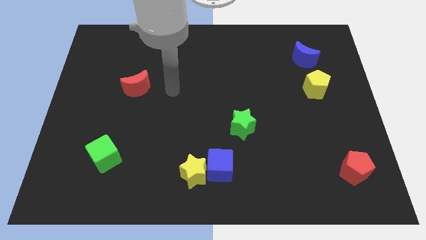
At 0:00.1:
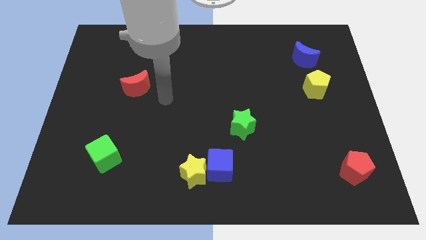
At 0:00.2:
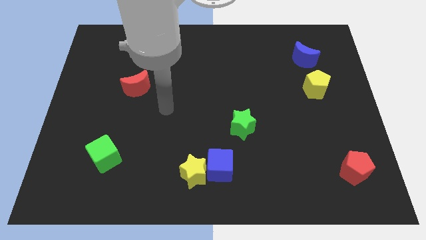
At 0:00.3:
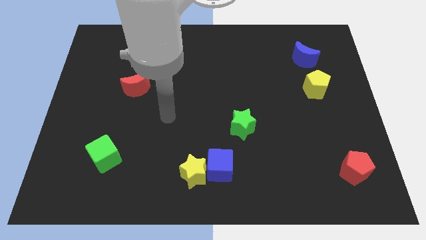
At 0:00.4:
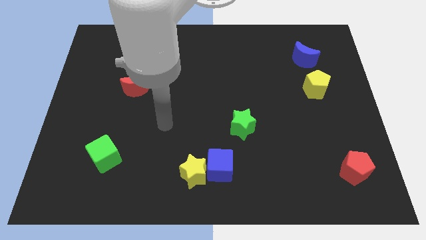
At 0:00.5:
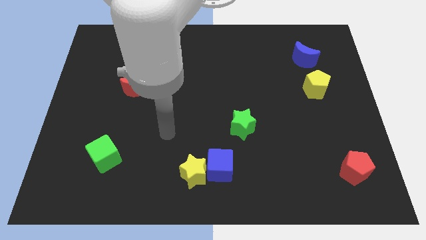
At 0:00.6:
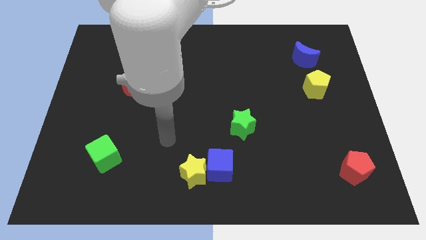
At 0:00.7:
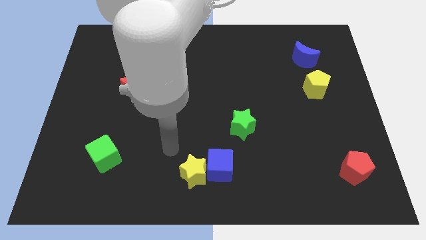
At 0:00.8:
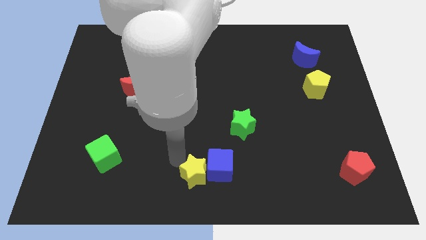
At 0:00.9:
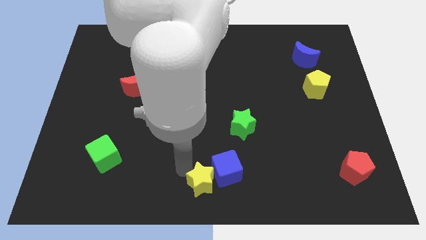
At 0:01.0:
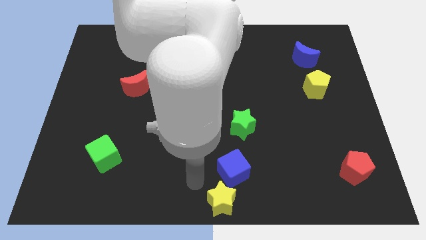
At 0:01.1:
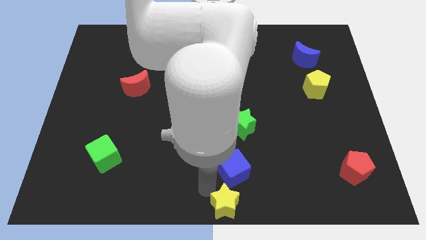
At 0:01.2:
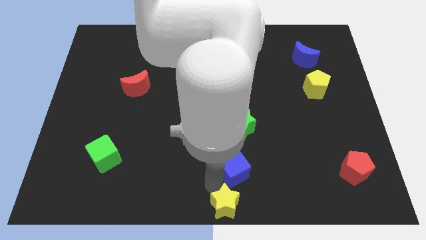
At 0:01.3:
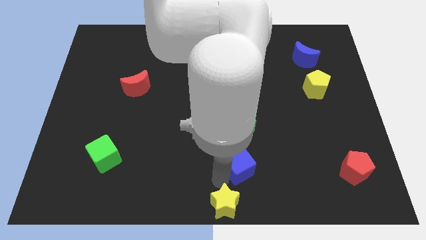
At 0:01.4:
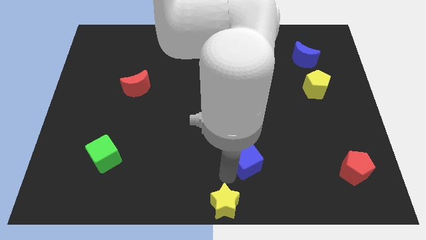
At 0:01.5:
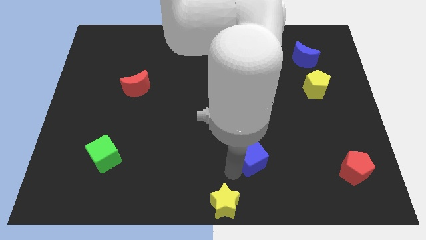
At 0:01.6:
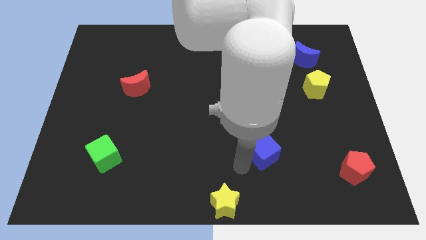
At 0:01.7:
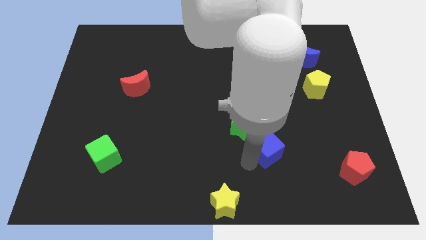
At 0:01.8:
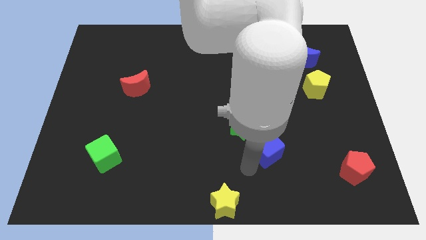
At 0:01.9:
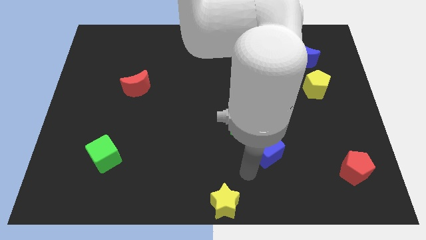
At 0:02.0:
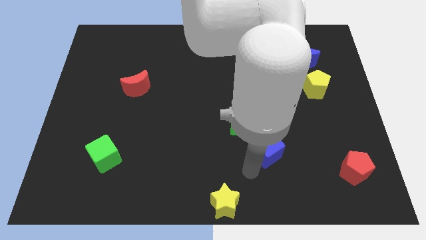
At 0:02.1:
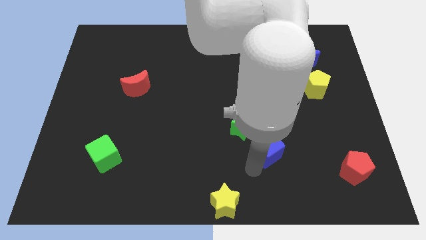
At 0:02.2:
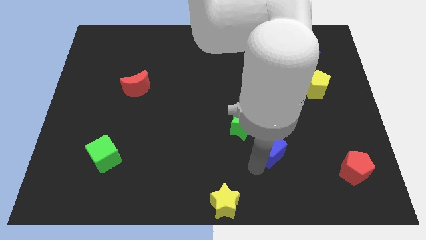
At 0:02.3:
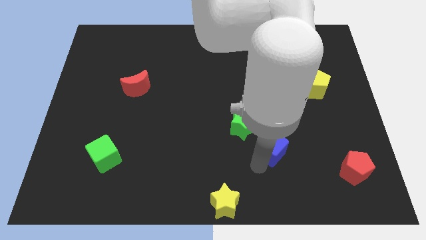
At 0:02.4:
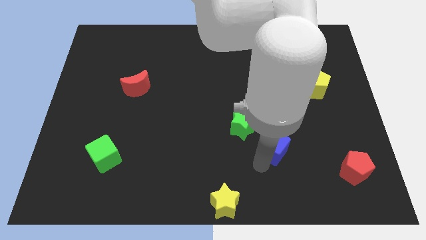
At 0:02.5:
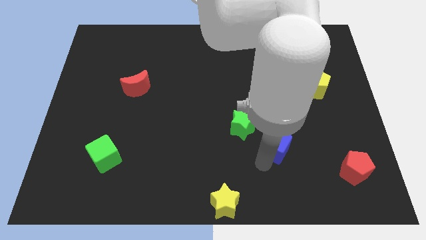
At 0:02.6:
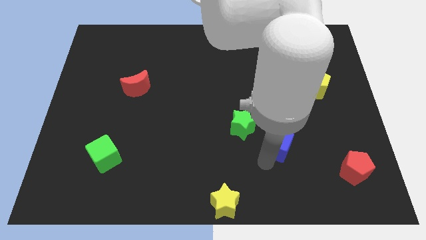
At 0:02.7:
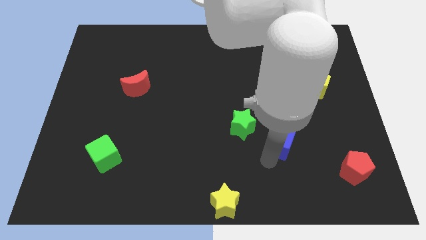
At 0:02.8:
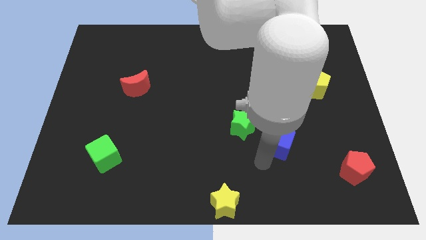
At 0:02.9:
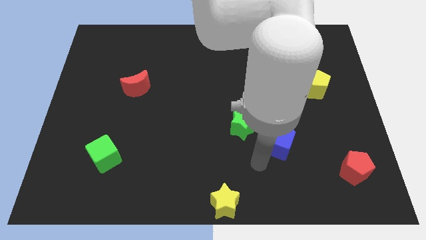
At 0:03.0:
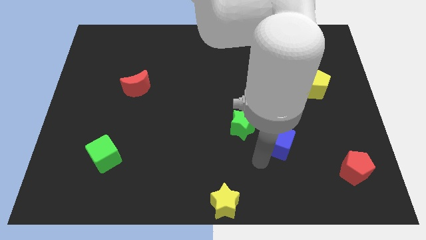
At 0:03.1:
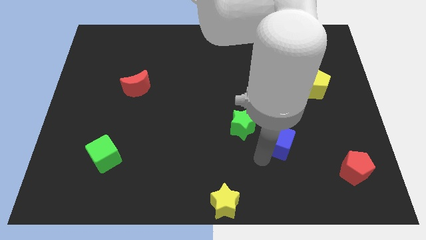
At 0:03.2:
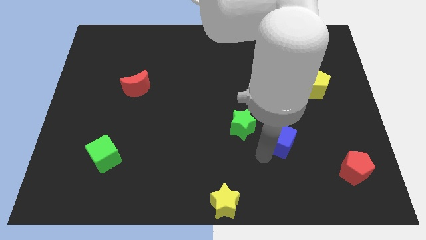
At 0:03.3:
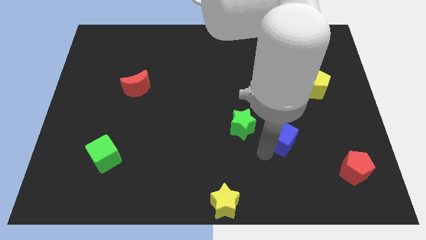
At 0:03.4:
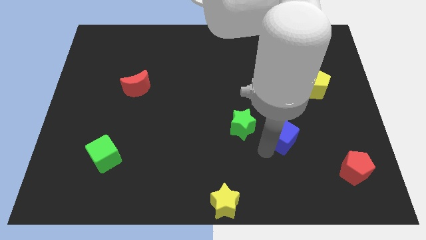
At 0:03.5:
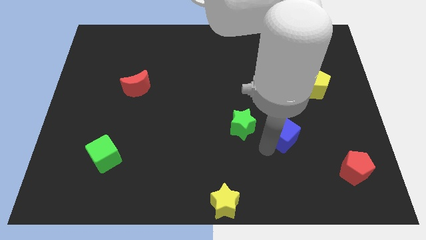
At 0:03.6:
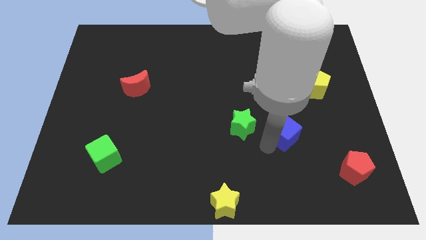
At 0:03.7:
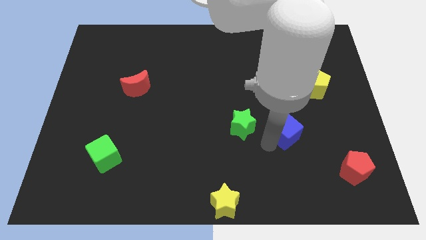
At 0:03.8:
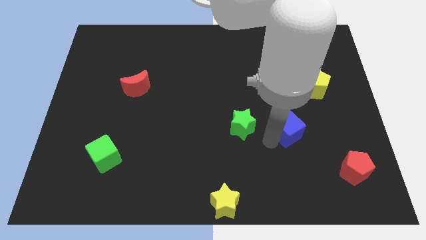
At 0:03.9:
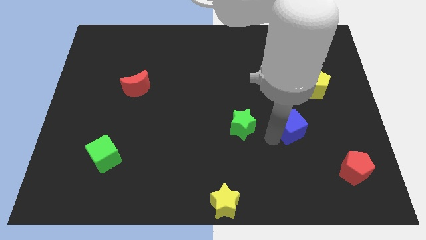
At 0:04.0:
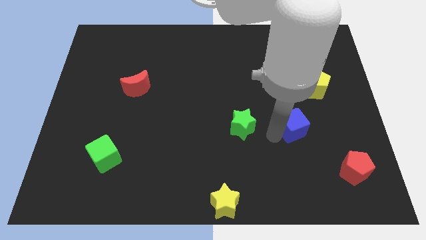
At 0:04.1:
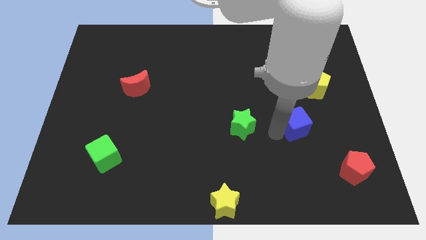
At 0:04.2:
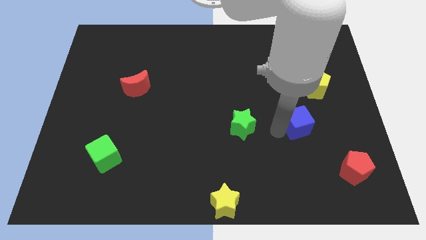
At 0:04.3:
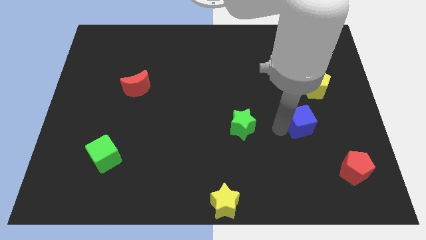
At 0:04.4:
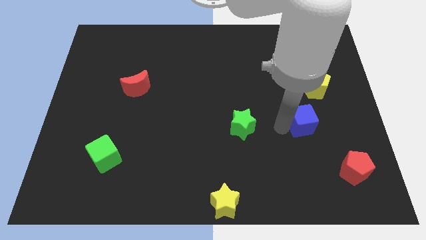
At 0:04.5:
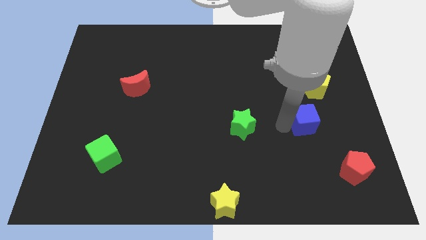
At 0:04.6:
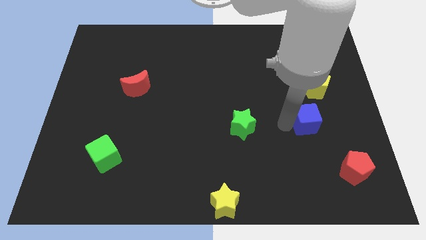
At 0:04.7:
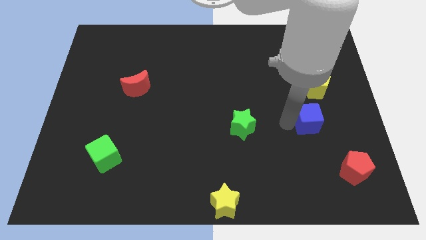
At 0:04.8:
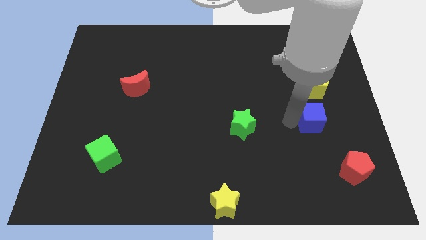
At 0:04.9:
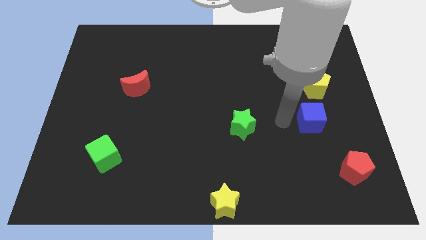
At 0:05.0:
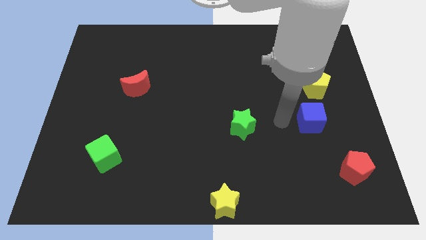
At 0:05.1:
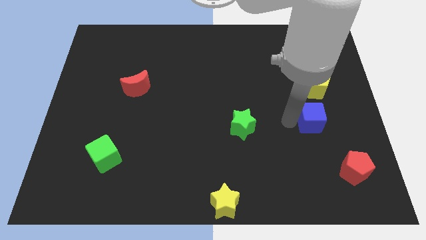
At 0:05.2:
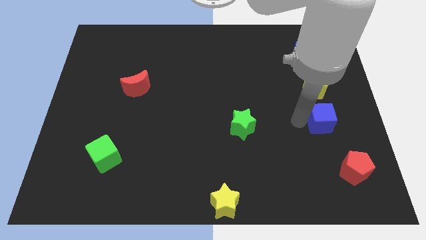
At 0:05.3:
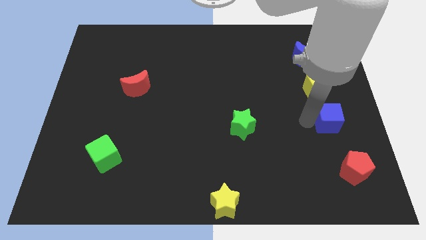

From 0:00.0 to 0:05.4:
put the blue cube to the right side of the board

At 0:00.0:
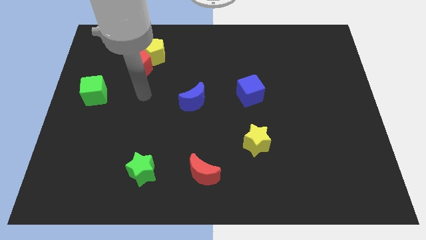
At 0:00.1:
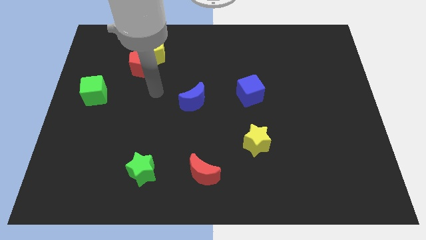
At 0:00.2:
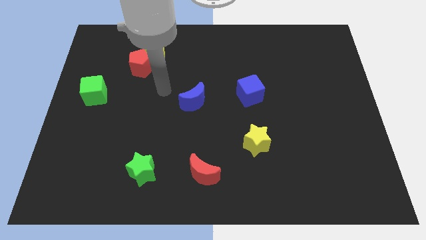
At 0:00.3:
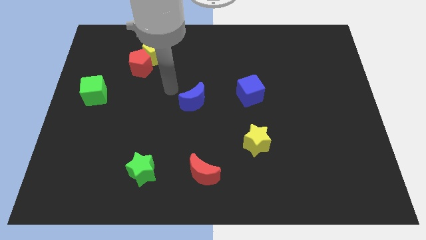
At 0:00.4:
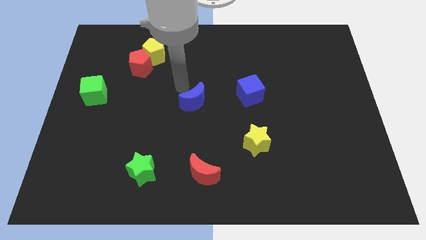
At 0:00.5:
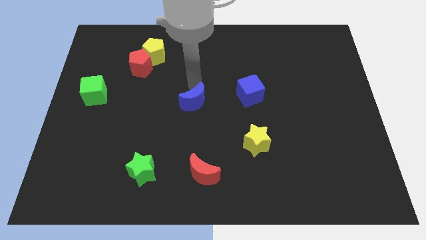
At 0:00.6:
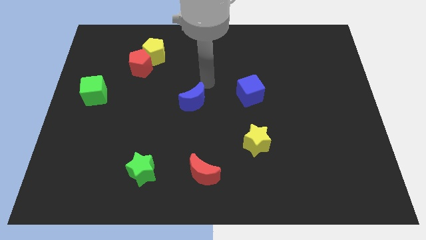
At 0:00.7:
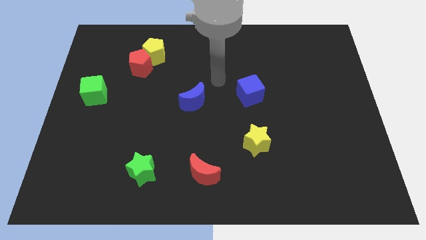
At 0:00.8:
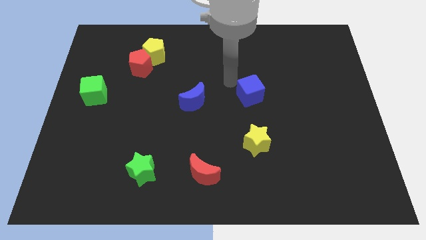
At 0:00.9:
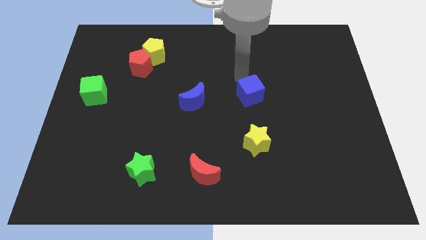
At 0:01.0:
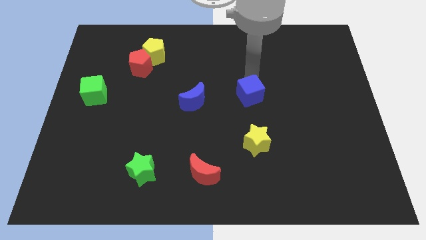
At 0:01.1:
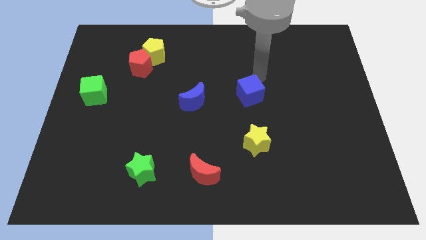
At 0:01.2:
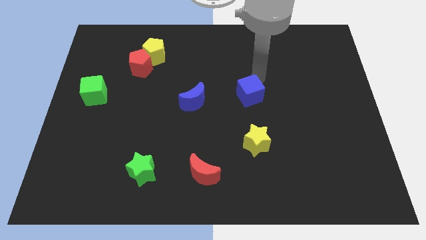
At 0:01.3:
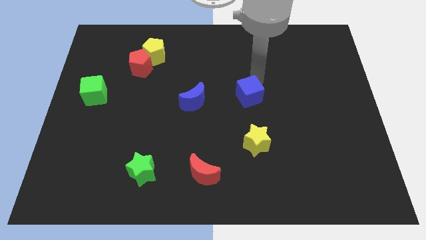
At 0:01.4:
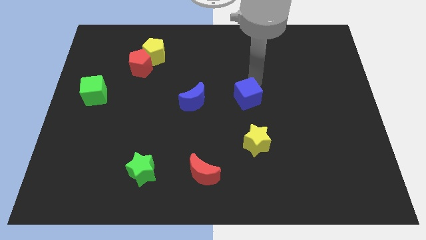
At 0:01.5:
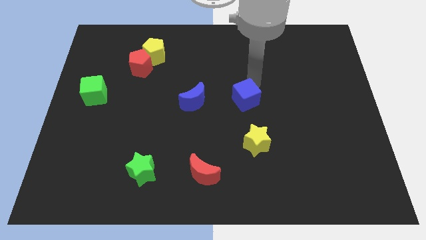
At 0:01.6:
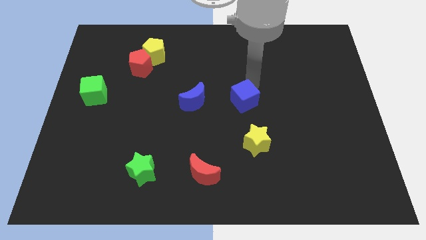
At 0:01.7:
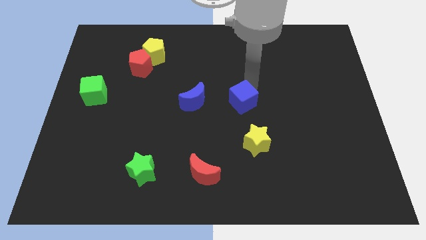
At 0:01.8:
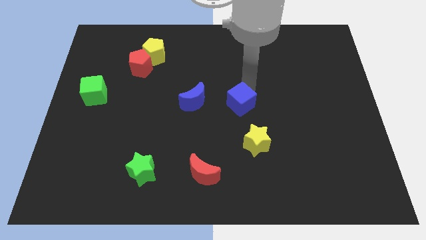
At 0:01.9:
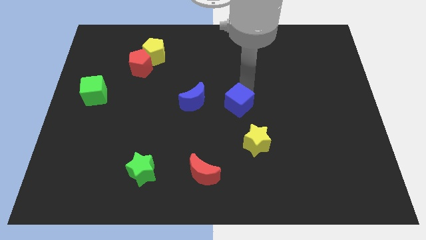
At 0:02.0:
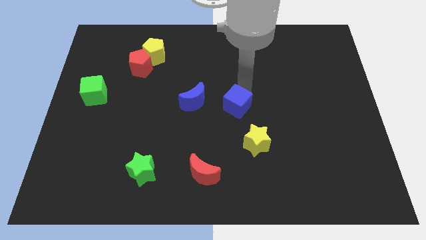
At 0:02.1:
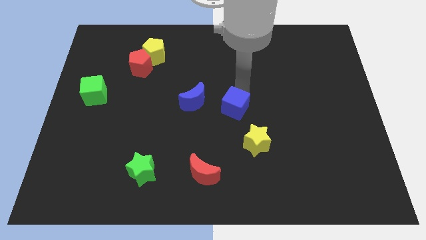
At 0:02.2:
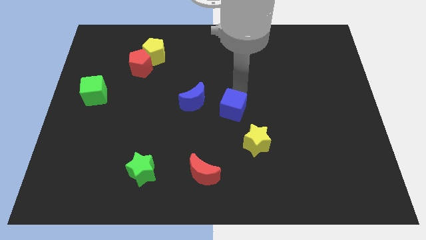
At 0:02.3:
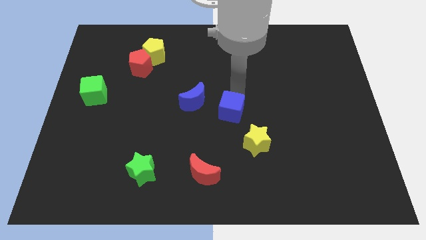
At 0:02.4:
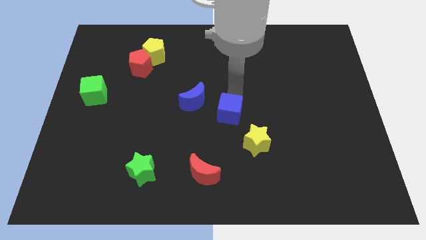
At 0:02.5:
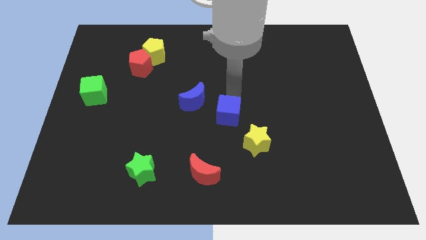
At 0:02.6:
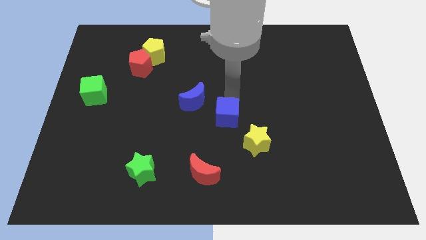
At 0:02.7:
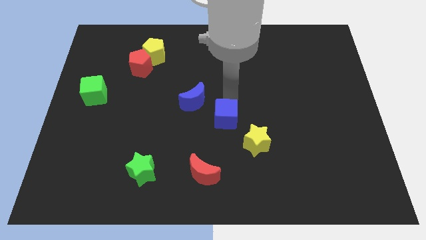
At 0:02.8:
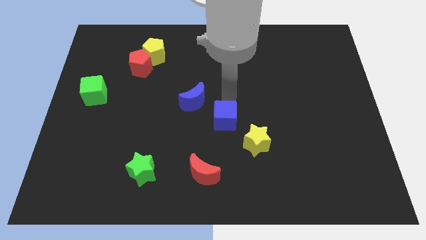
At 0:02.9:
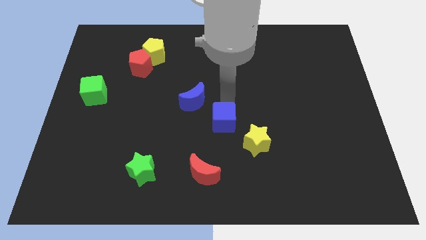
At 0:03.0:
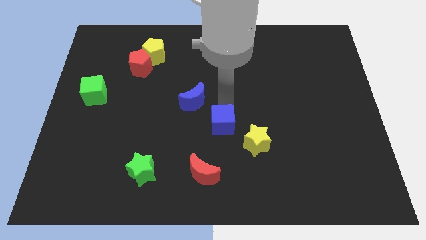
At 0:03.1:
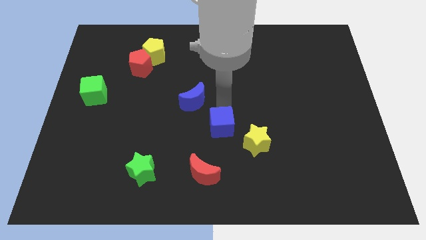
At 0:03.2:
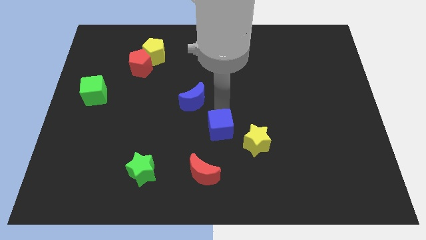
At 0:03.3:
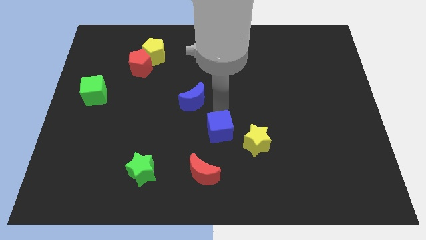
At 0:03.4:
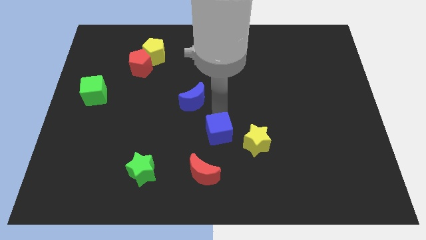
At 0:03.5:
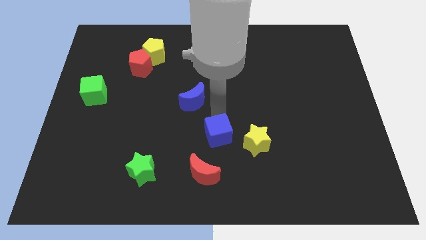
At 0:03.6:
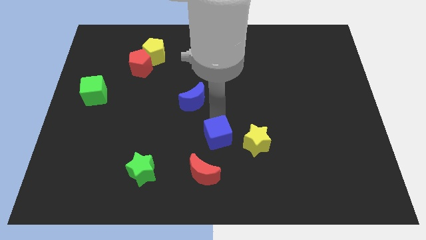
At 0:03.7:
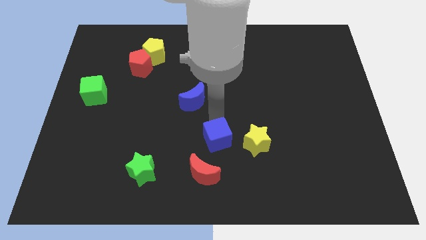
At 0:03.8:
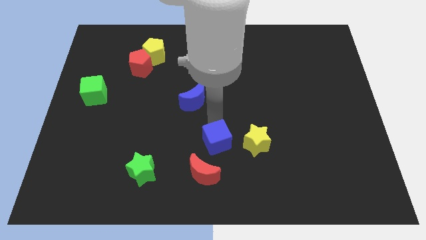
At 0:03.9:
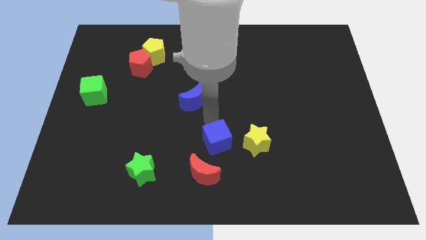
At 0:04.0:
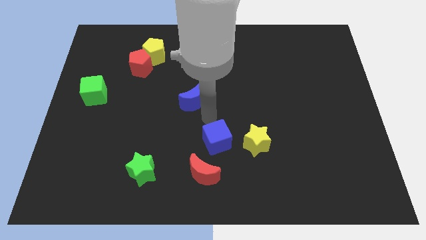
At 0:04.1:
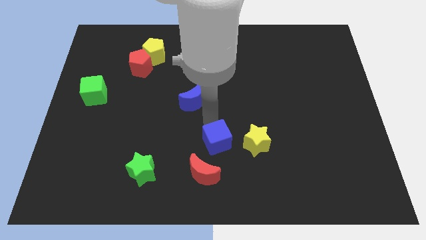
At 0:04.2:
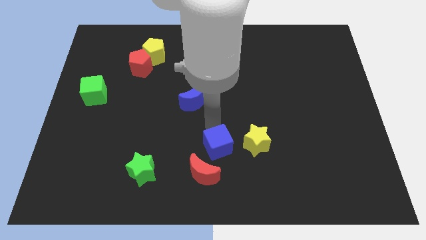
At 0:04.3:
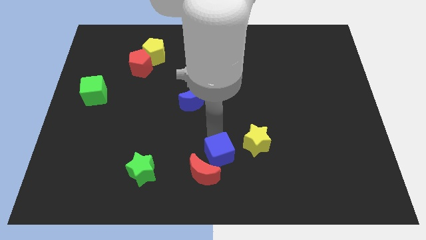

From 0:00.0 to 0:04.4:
push the blue cube to the bottom
